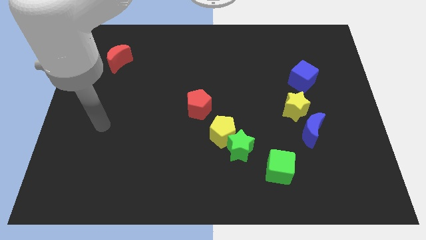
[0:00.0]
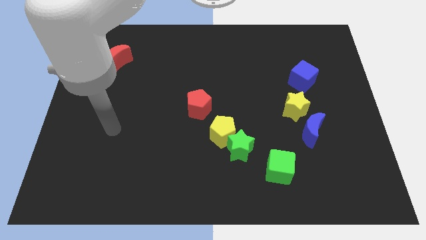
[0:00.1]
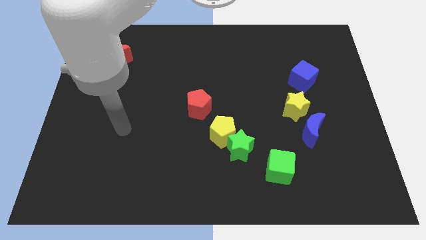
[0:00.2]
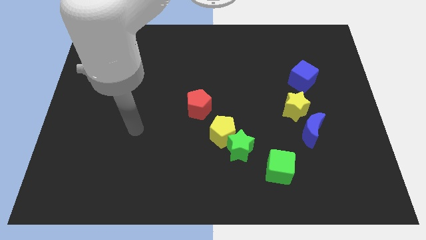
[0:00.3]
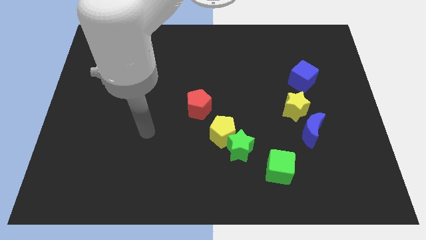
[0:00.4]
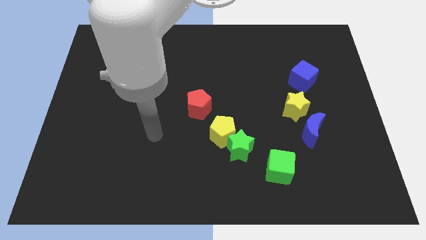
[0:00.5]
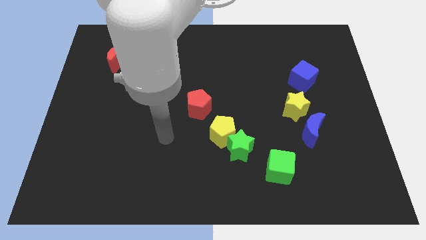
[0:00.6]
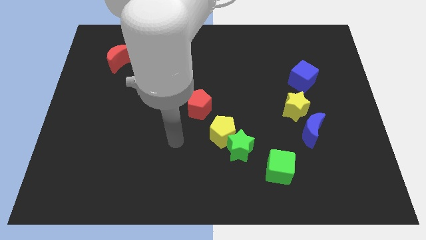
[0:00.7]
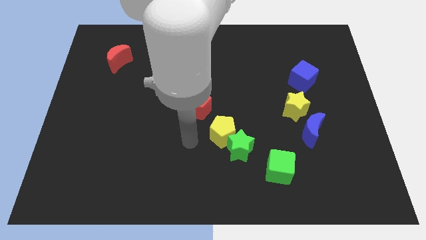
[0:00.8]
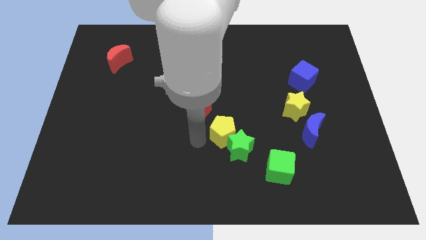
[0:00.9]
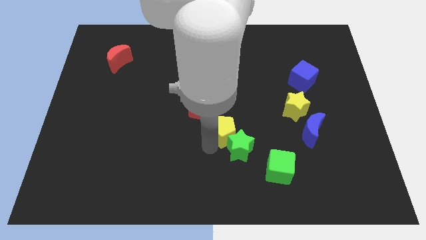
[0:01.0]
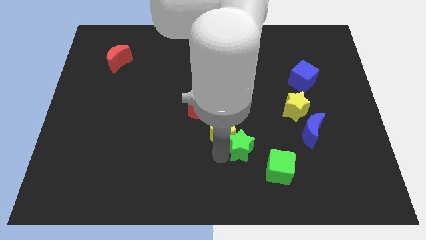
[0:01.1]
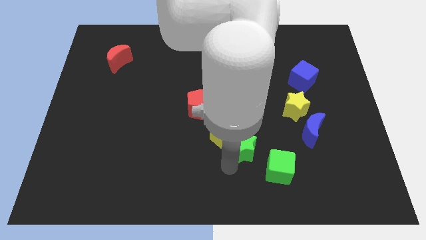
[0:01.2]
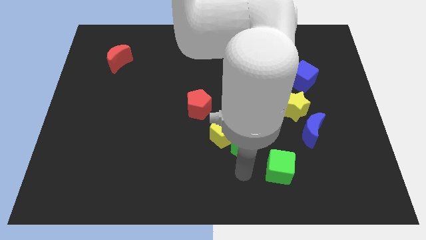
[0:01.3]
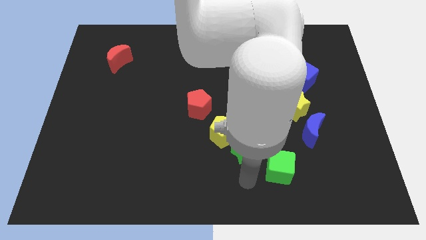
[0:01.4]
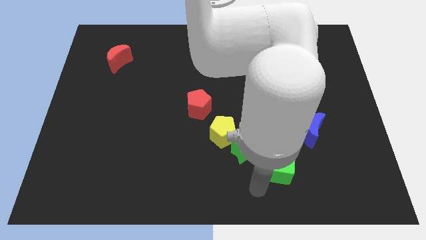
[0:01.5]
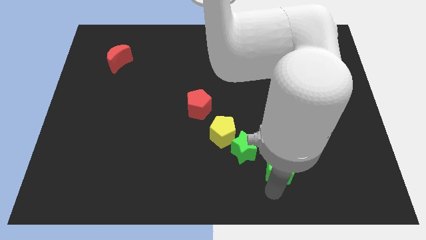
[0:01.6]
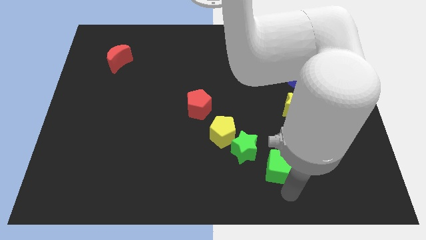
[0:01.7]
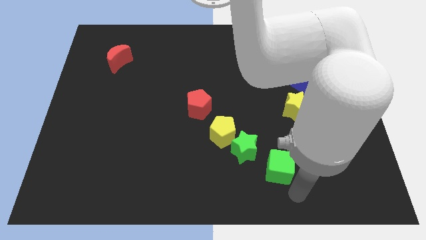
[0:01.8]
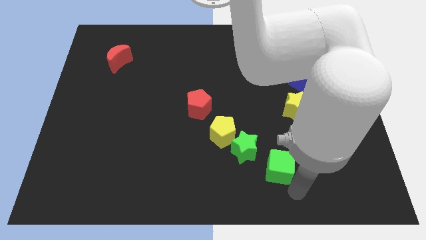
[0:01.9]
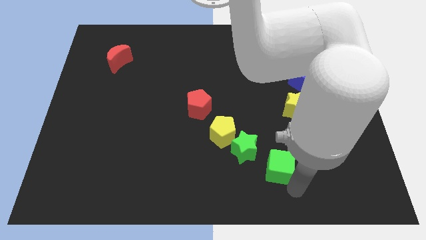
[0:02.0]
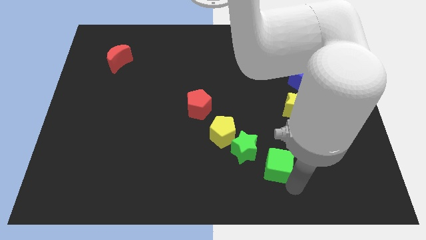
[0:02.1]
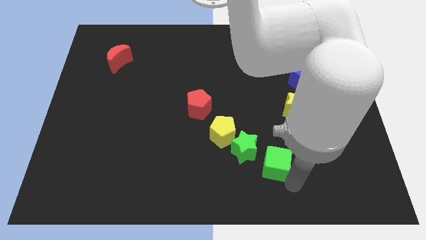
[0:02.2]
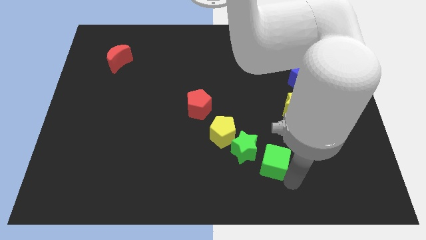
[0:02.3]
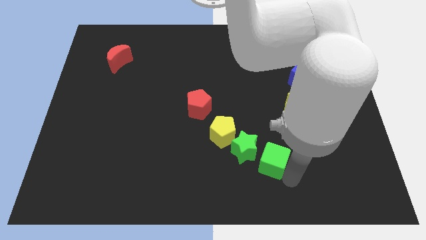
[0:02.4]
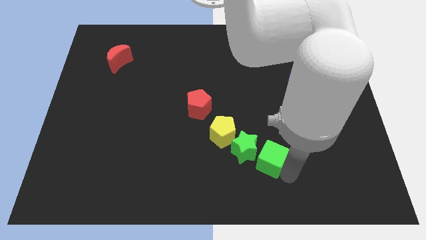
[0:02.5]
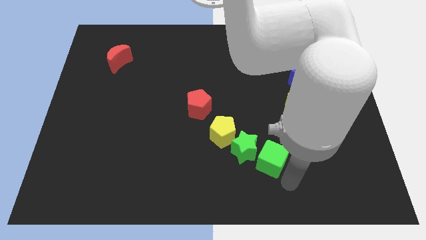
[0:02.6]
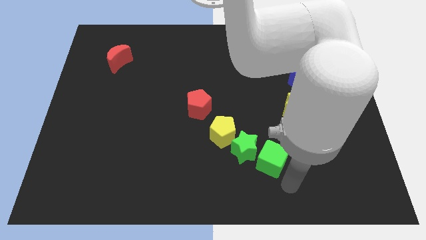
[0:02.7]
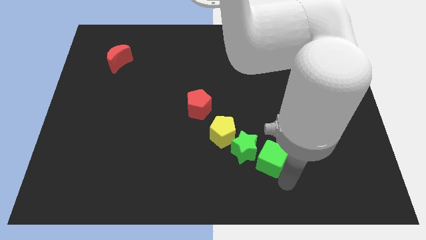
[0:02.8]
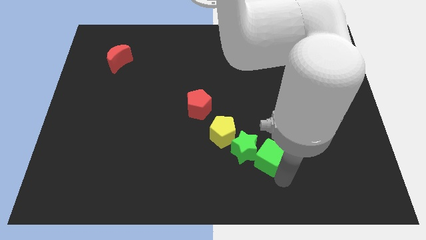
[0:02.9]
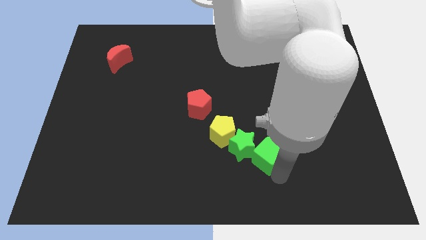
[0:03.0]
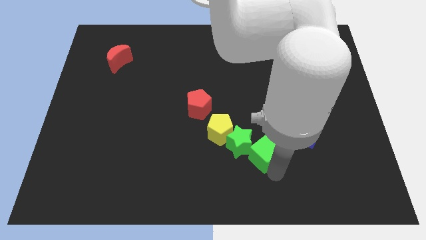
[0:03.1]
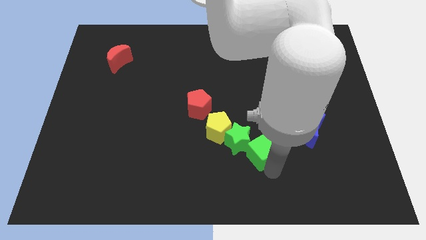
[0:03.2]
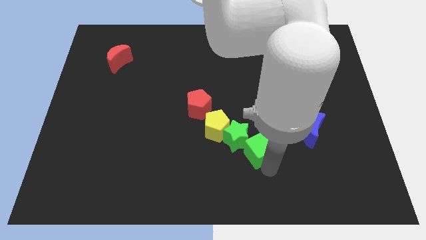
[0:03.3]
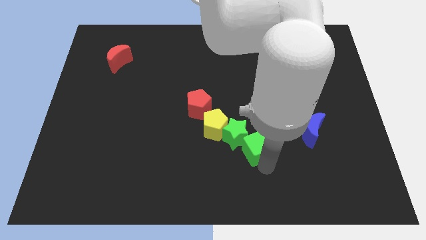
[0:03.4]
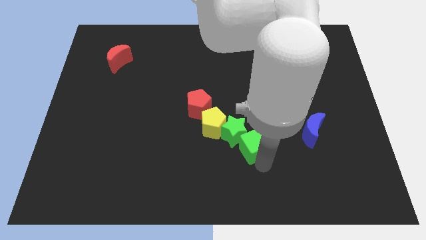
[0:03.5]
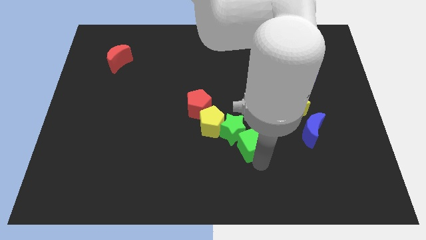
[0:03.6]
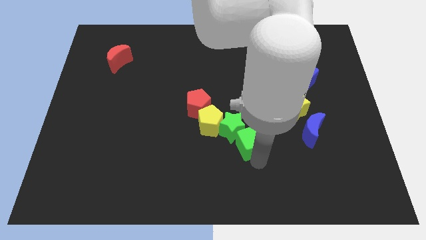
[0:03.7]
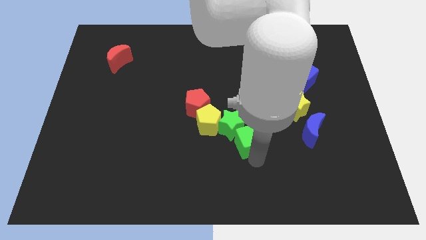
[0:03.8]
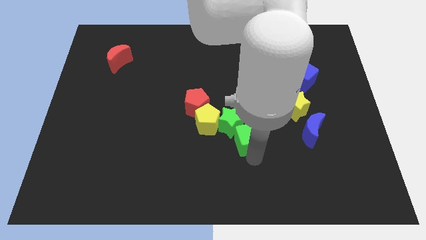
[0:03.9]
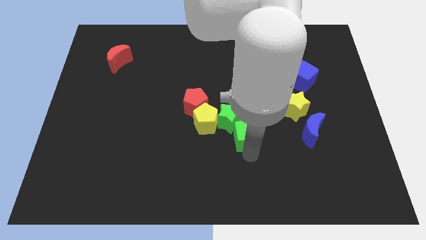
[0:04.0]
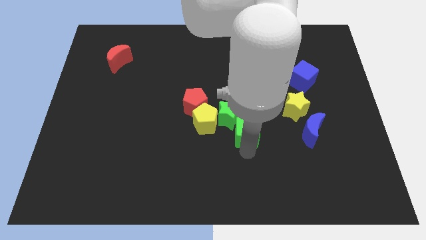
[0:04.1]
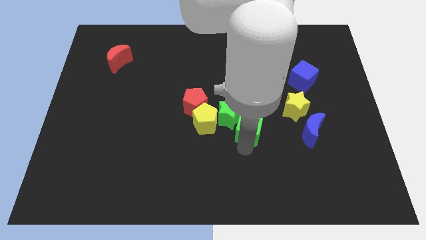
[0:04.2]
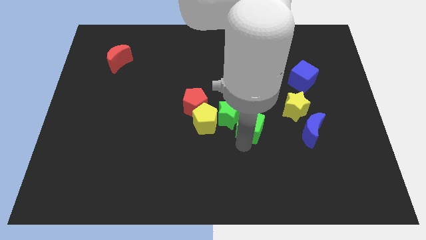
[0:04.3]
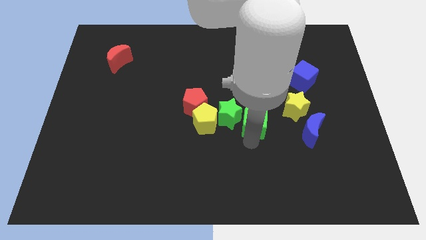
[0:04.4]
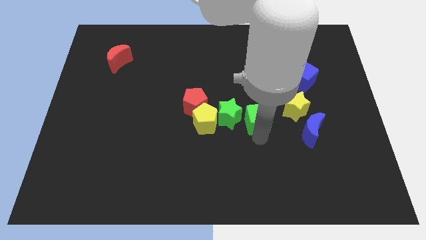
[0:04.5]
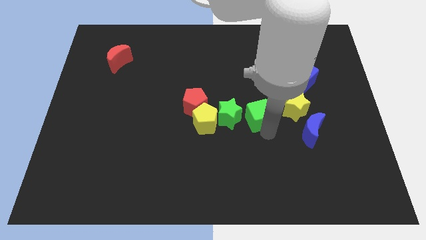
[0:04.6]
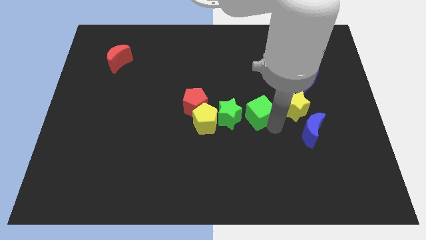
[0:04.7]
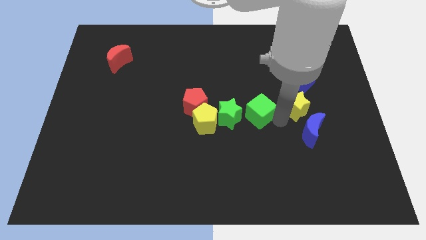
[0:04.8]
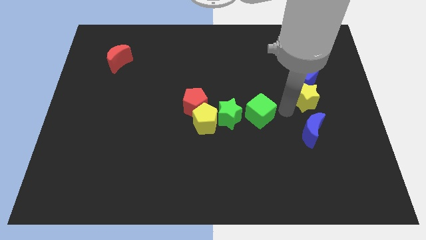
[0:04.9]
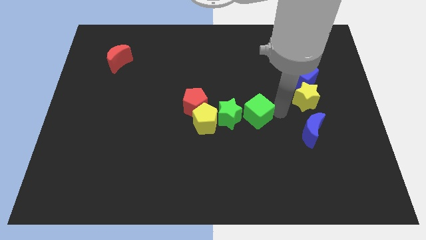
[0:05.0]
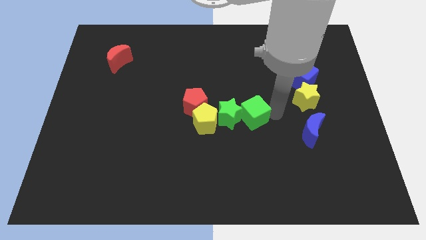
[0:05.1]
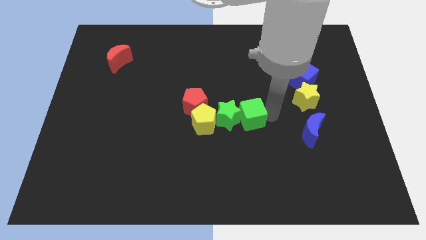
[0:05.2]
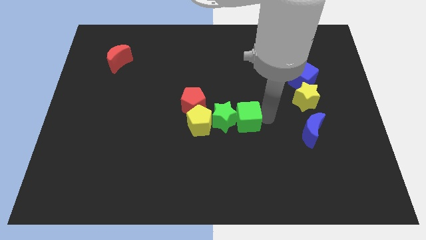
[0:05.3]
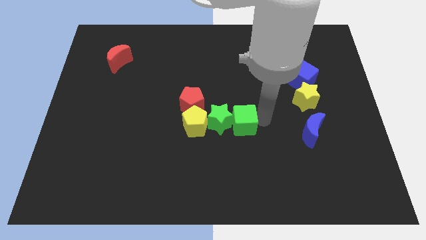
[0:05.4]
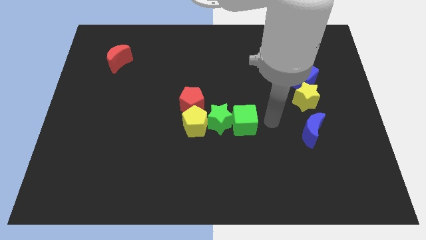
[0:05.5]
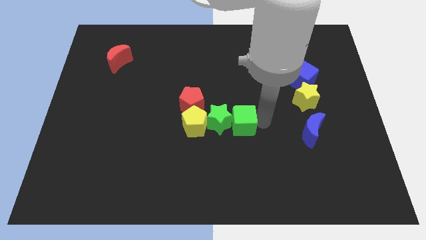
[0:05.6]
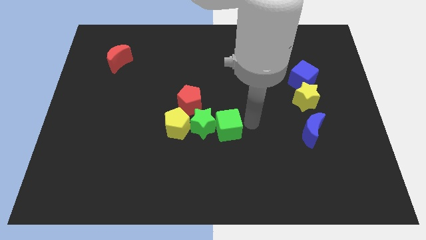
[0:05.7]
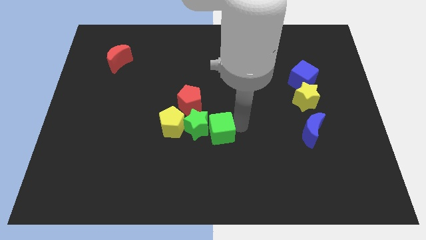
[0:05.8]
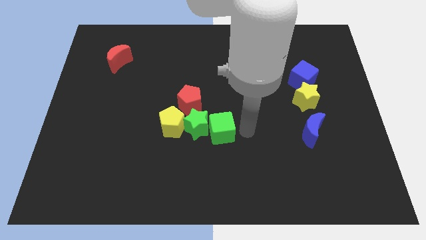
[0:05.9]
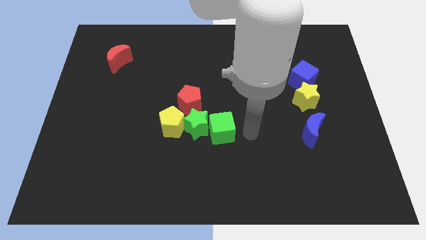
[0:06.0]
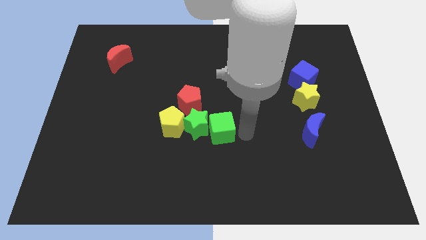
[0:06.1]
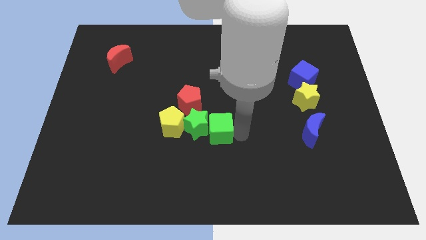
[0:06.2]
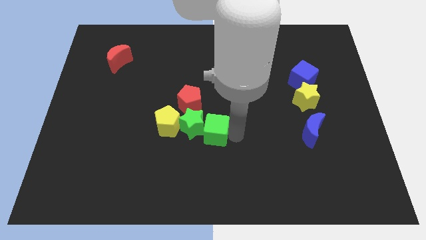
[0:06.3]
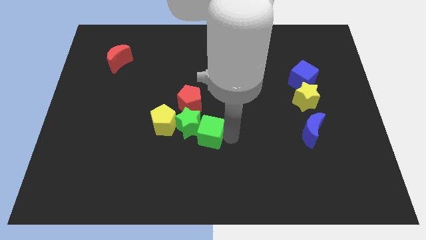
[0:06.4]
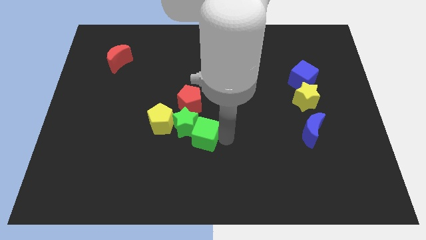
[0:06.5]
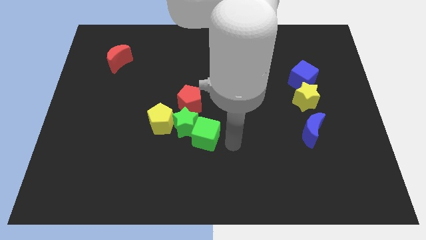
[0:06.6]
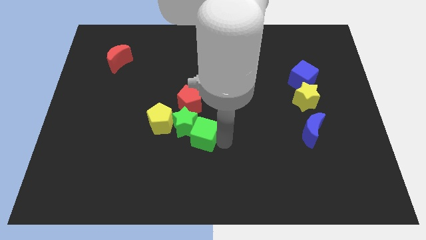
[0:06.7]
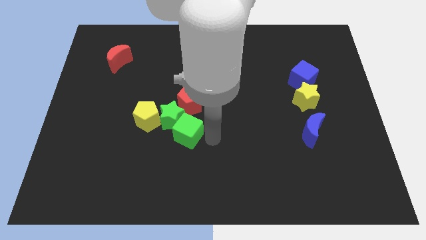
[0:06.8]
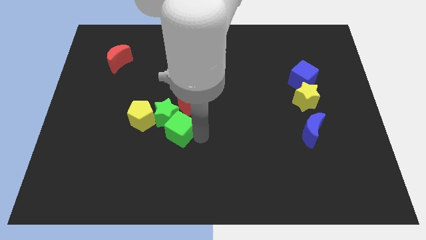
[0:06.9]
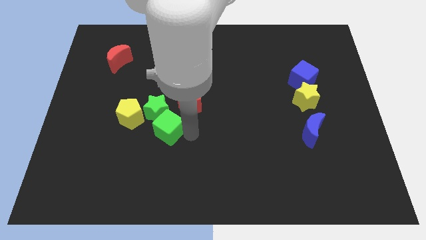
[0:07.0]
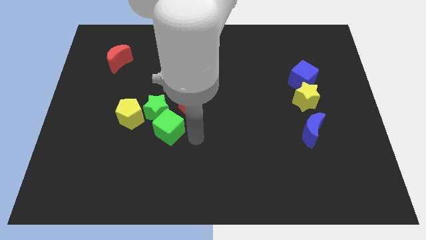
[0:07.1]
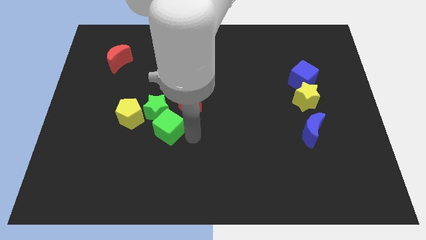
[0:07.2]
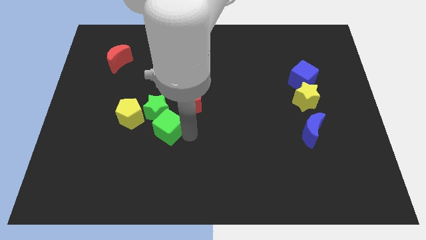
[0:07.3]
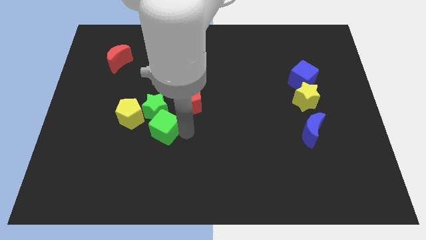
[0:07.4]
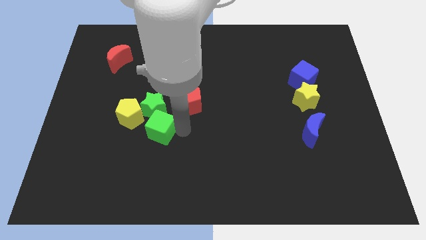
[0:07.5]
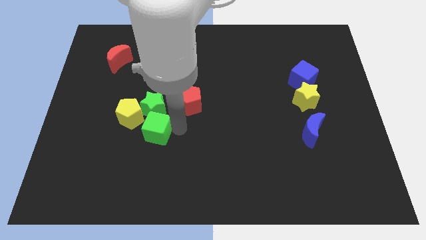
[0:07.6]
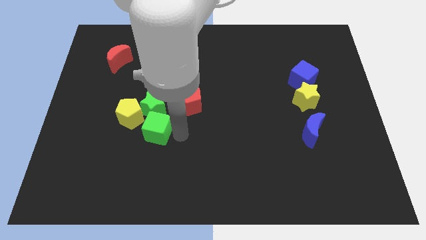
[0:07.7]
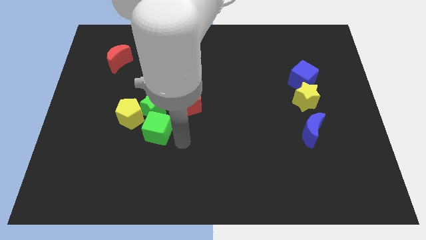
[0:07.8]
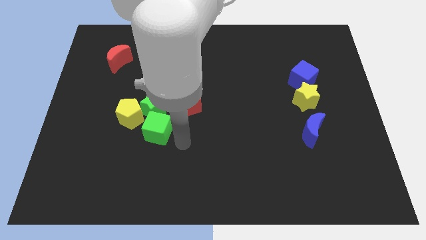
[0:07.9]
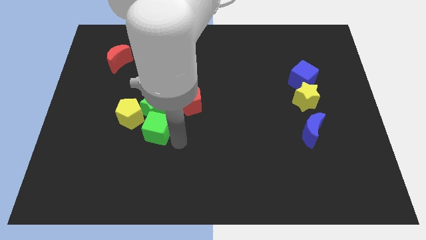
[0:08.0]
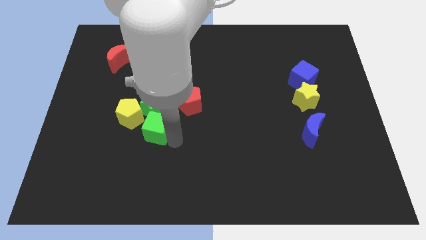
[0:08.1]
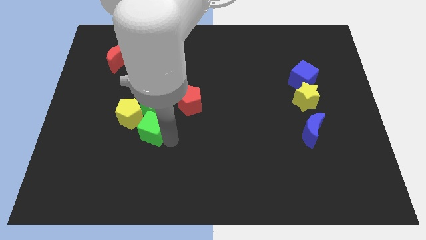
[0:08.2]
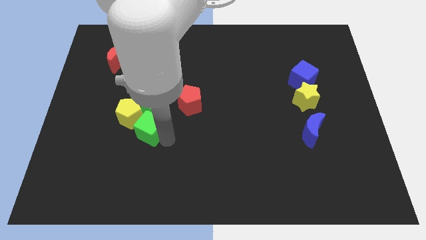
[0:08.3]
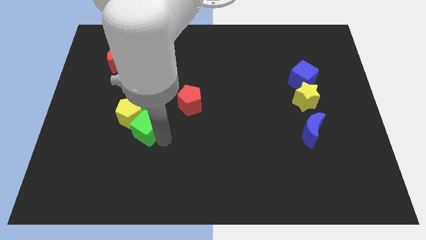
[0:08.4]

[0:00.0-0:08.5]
slide the green cube close to the yellow pentagon
